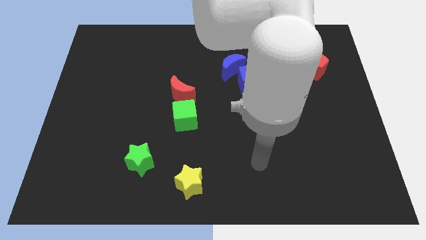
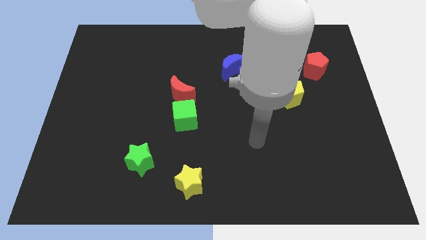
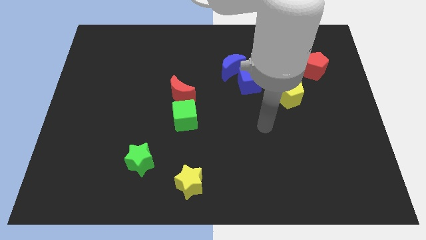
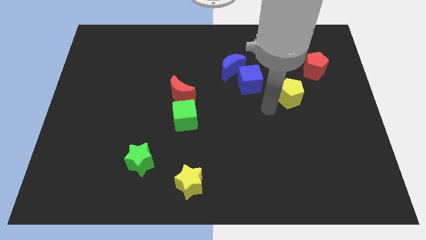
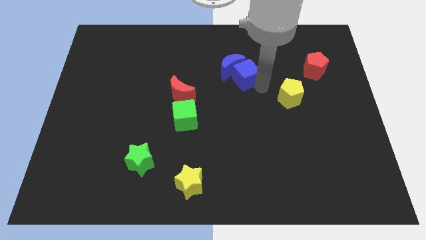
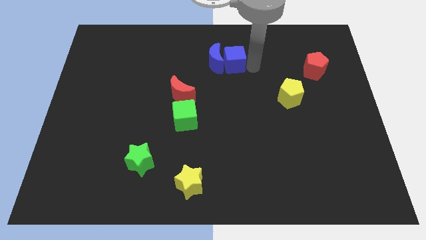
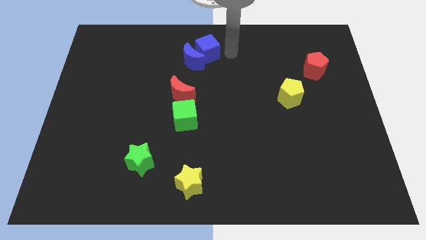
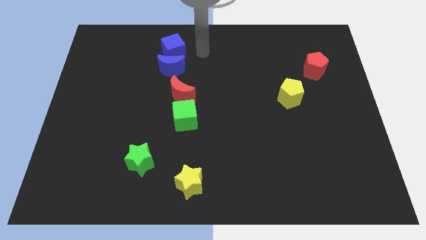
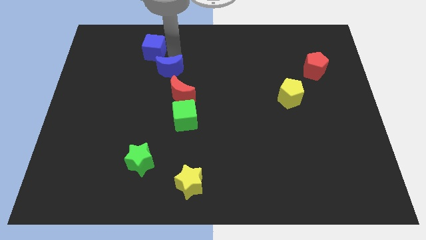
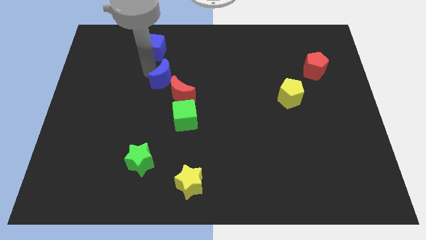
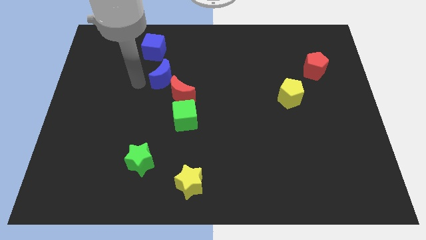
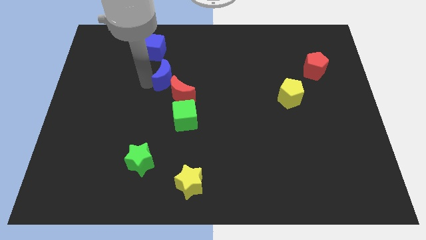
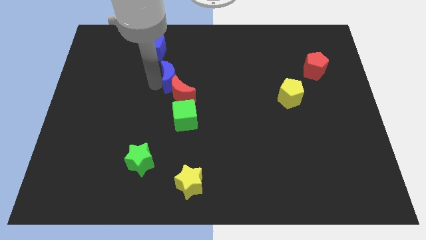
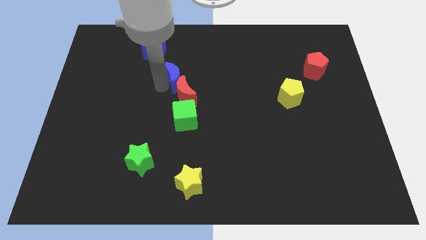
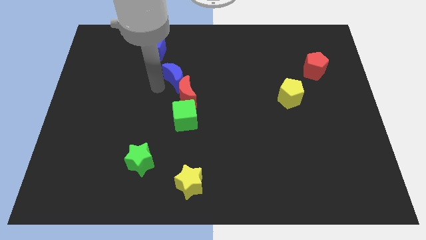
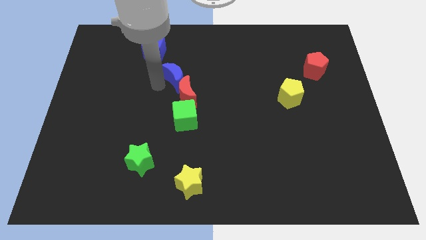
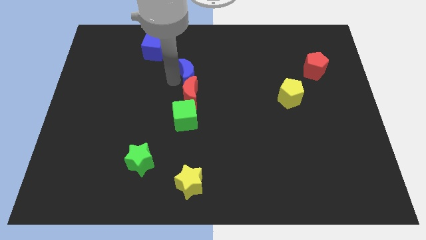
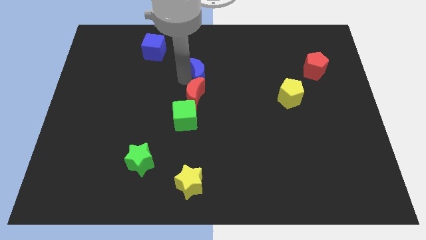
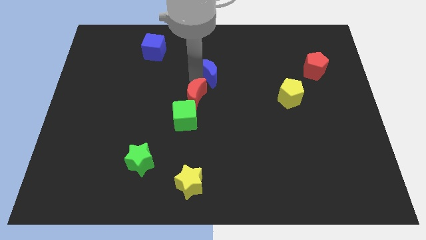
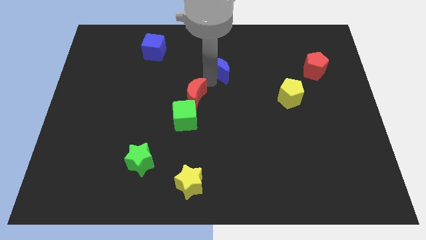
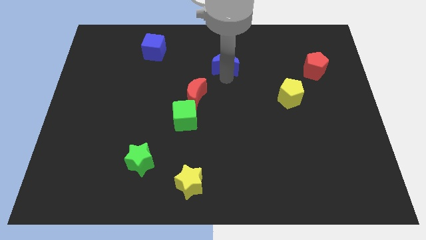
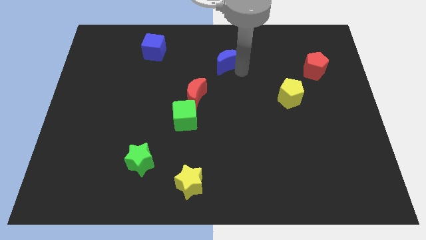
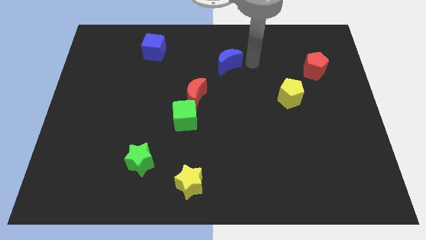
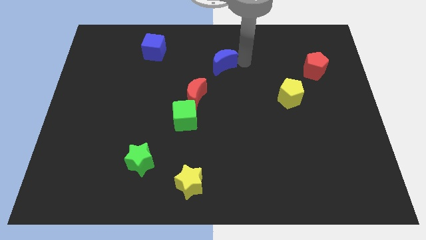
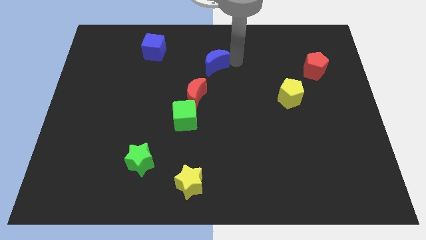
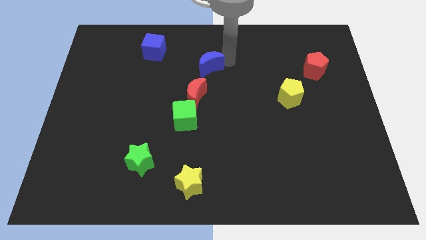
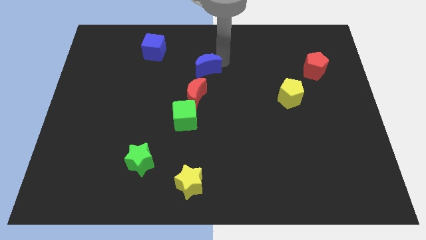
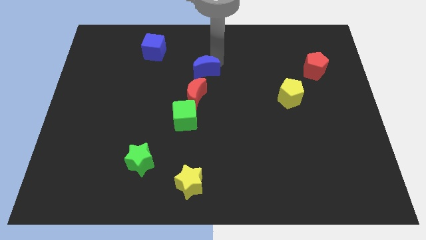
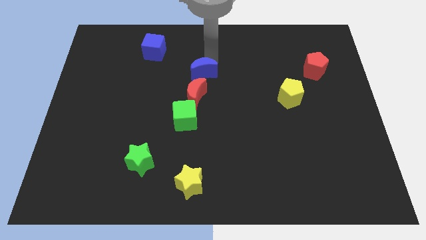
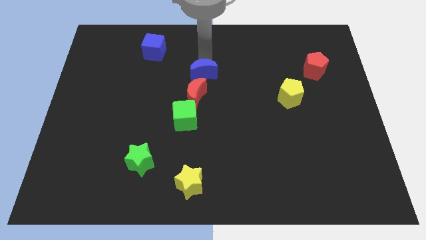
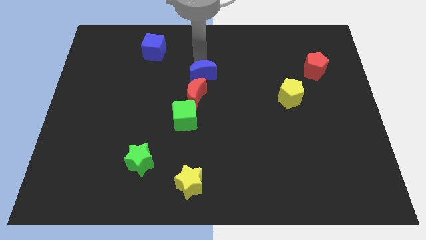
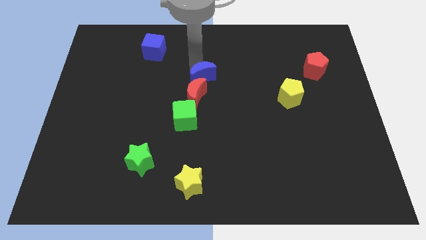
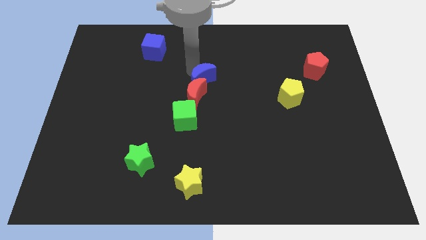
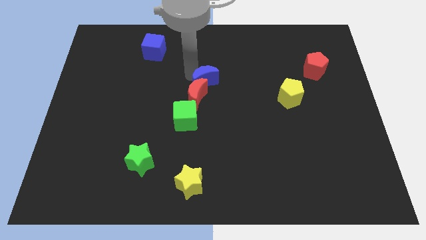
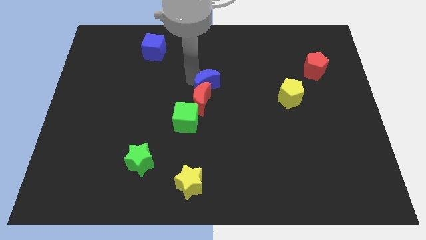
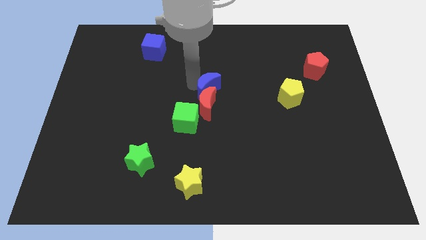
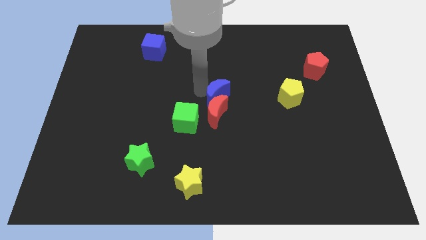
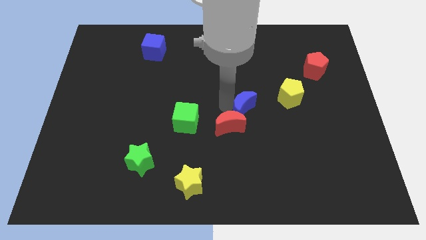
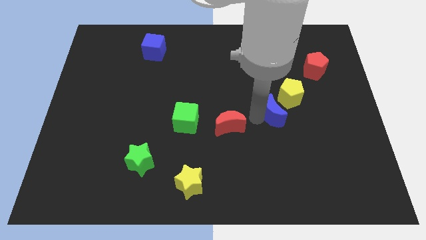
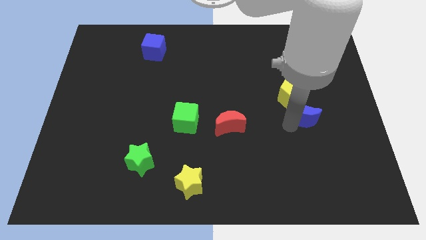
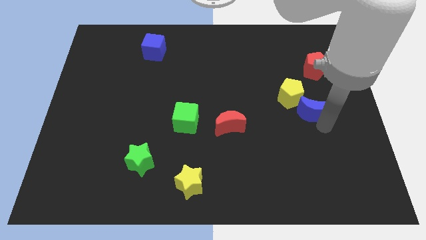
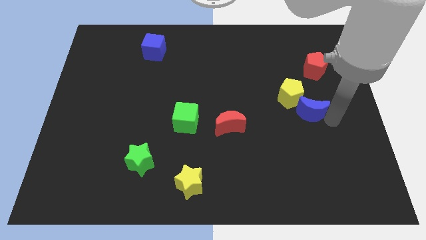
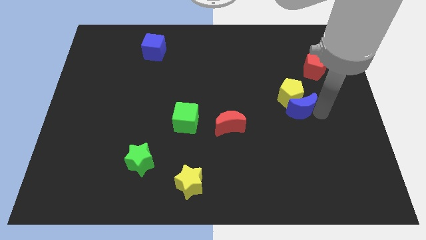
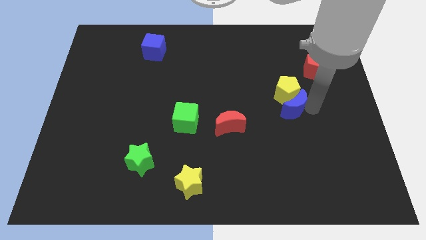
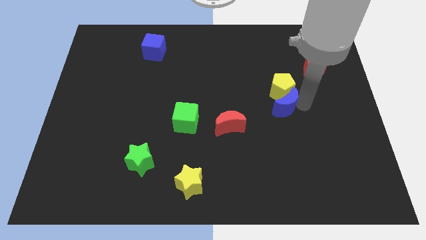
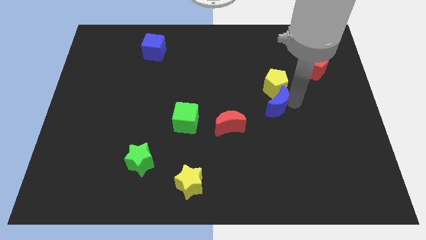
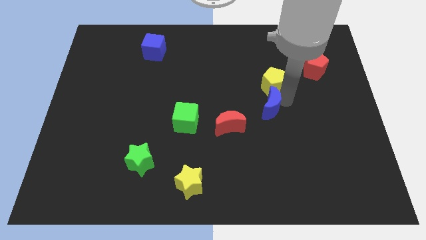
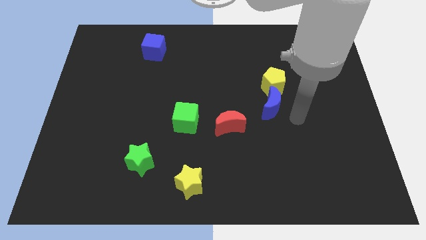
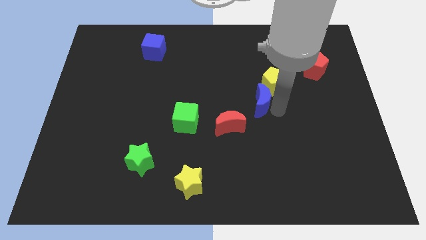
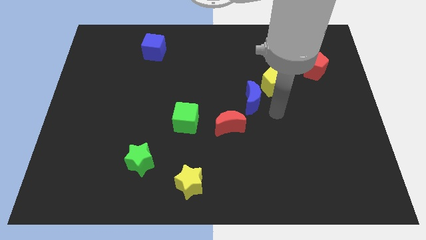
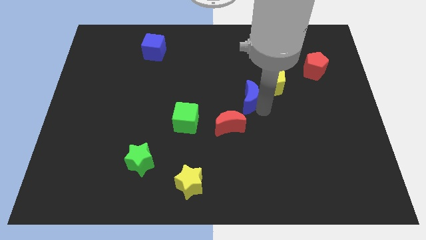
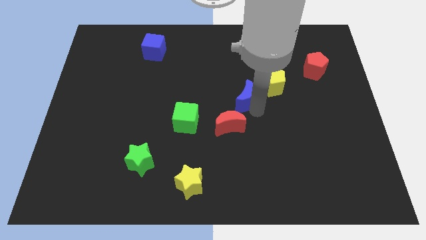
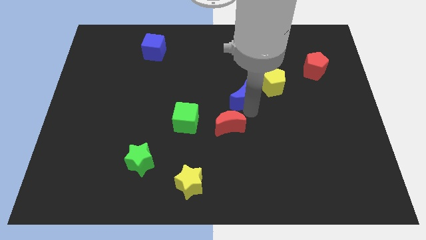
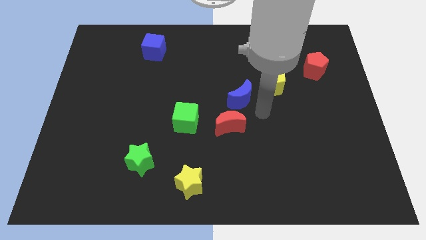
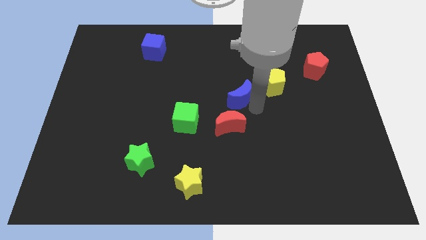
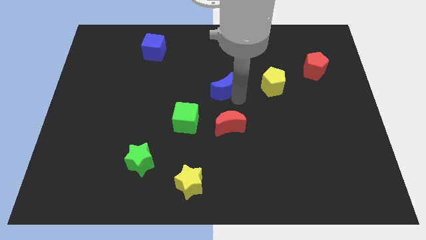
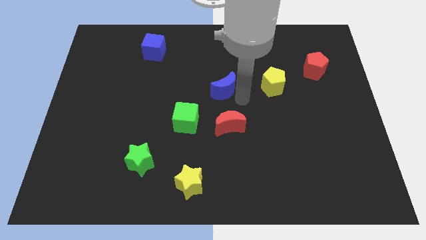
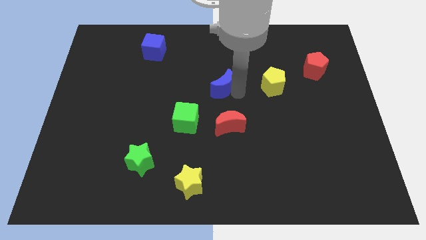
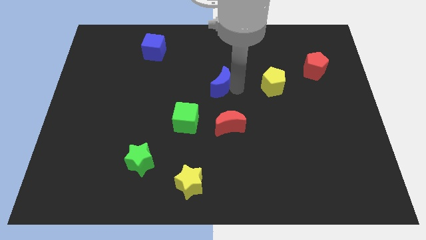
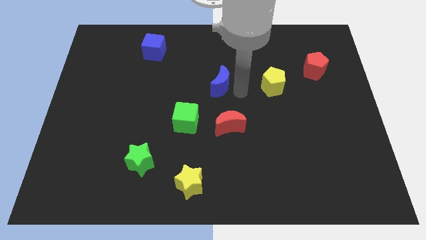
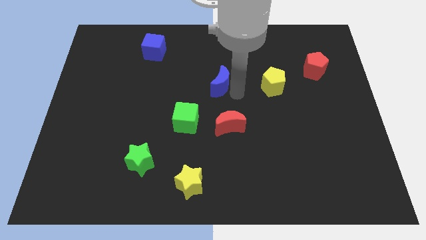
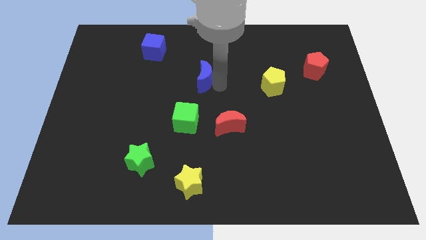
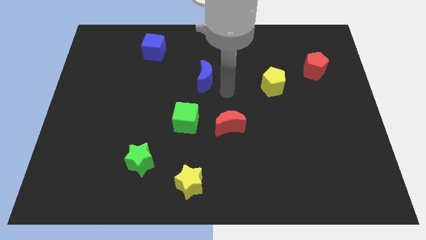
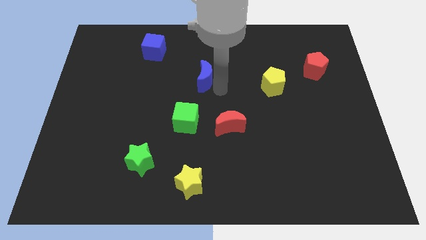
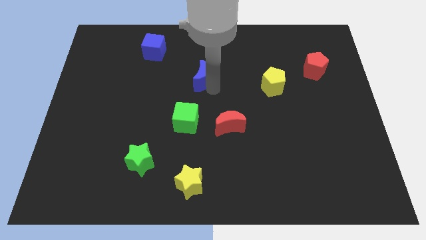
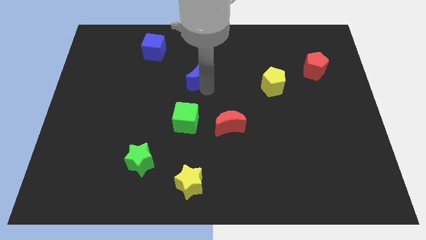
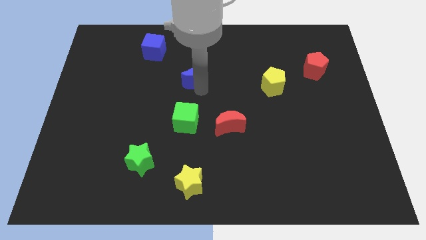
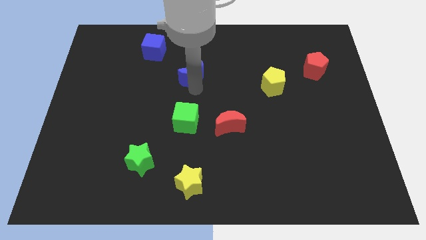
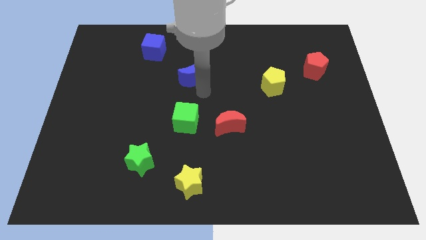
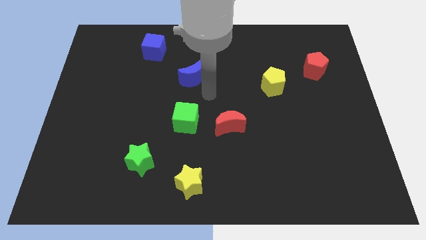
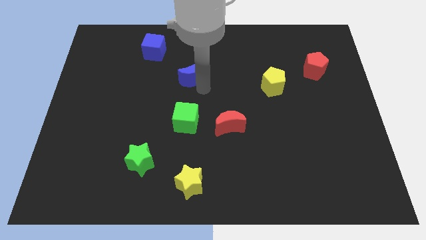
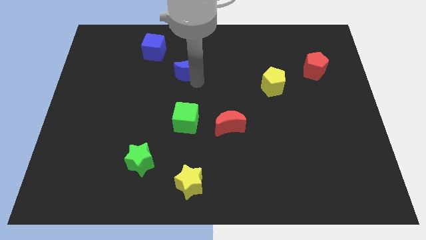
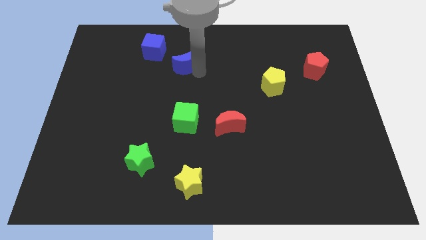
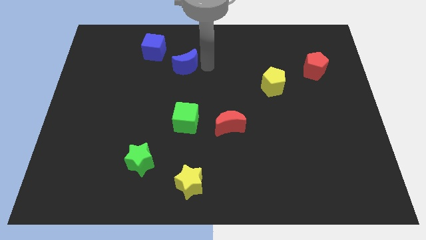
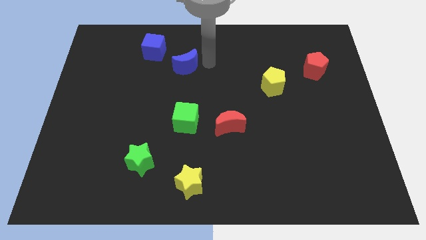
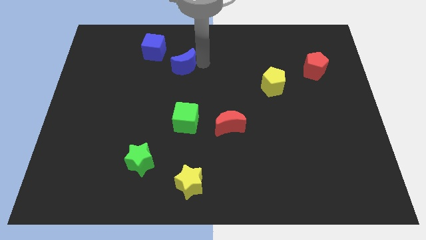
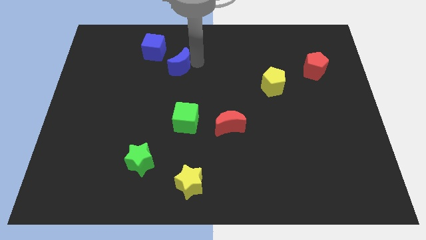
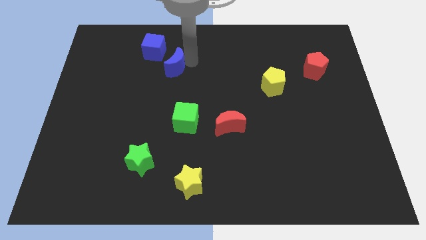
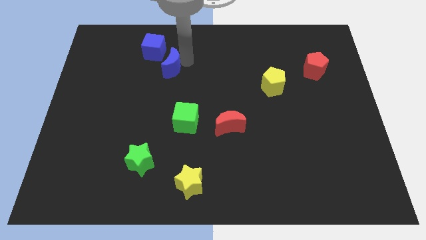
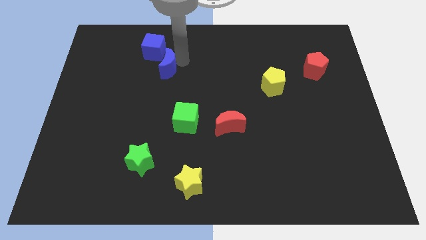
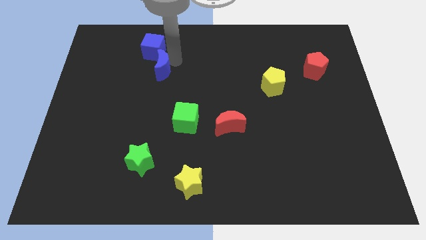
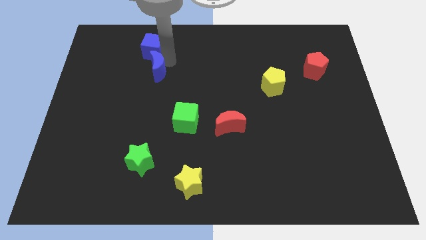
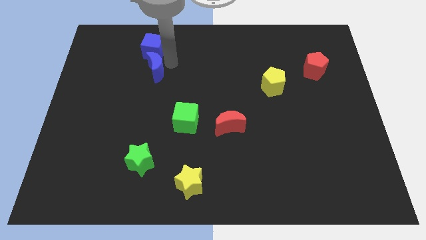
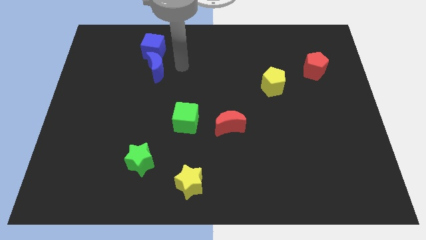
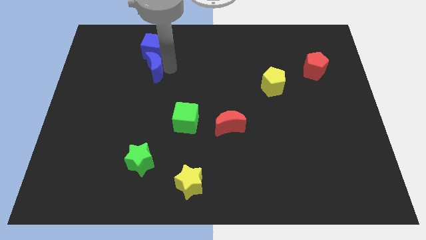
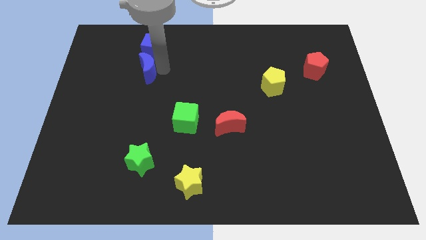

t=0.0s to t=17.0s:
push the blue moon left
